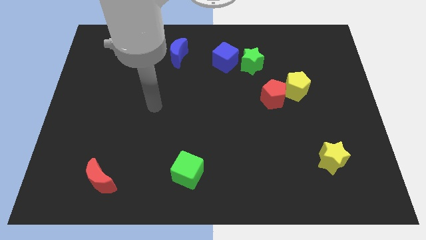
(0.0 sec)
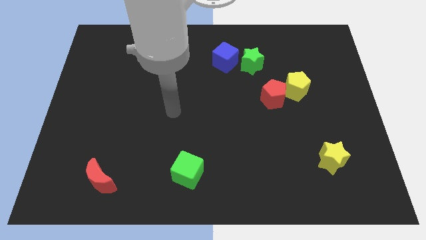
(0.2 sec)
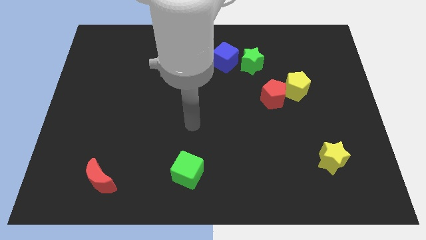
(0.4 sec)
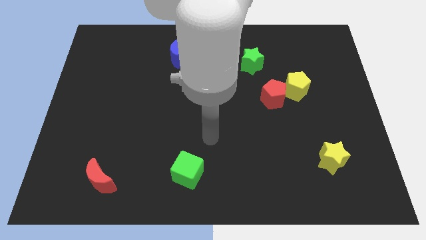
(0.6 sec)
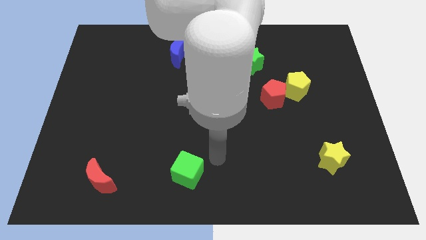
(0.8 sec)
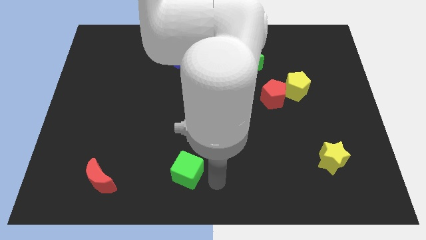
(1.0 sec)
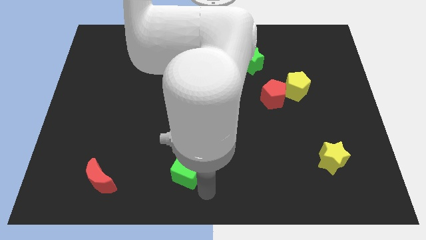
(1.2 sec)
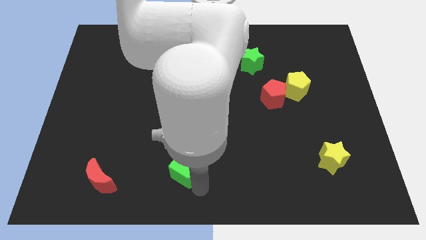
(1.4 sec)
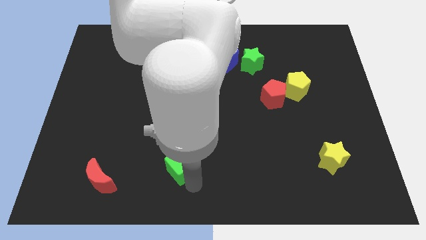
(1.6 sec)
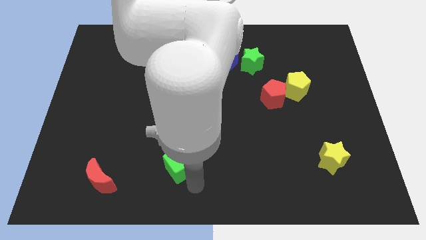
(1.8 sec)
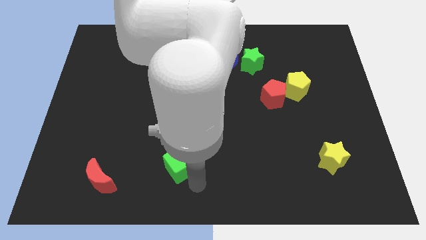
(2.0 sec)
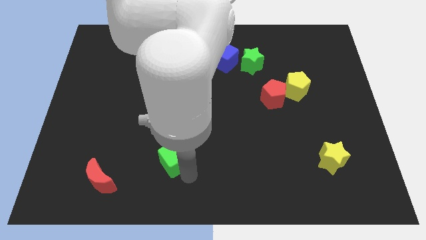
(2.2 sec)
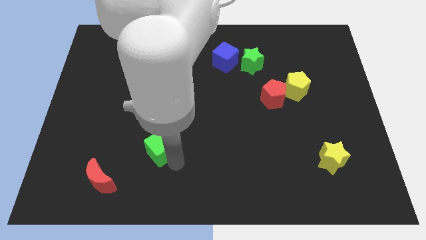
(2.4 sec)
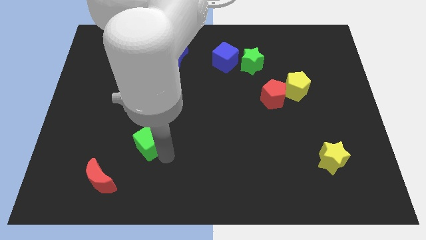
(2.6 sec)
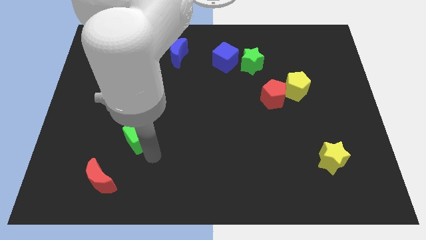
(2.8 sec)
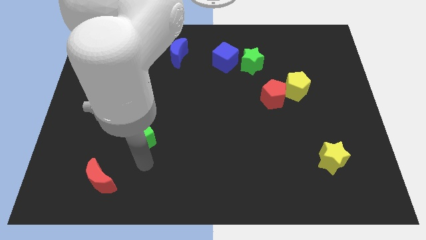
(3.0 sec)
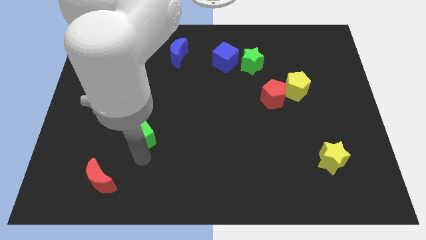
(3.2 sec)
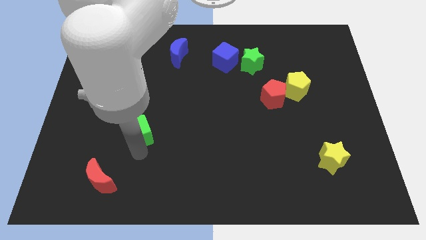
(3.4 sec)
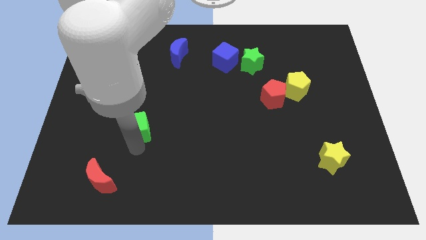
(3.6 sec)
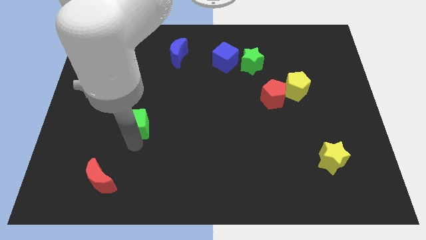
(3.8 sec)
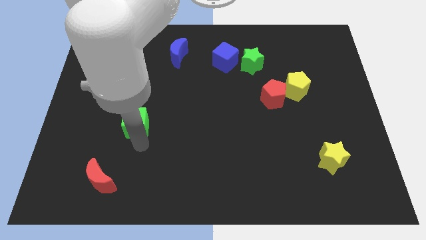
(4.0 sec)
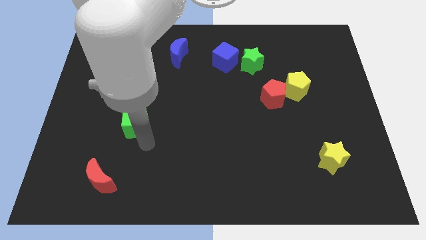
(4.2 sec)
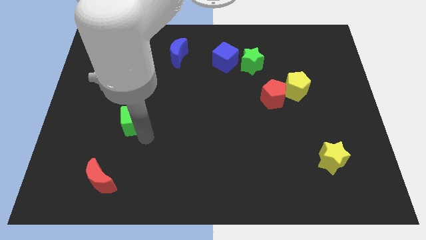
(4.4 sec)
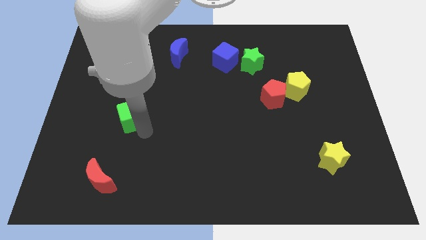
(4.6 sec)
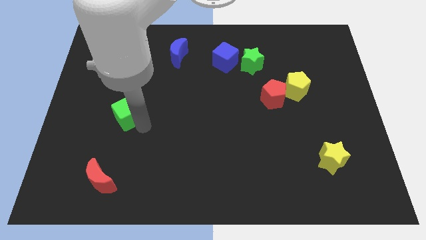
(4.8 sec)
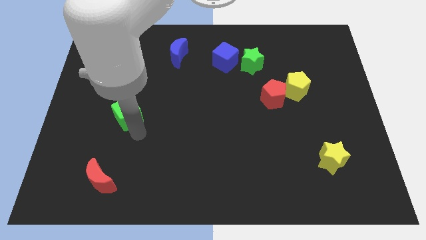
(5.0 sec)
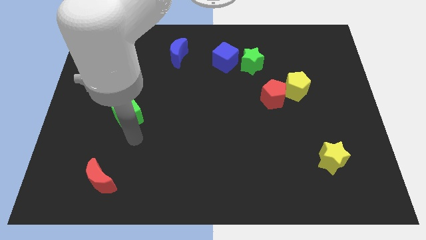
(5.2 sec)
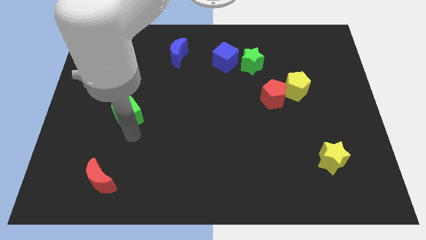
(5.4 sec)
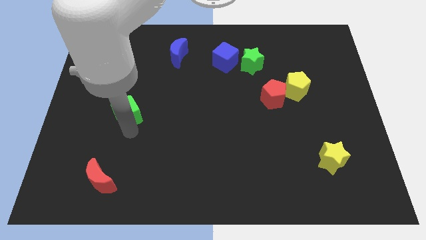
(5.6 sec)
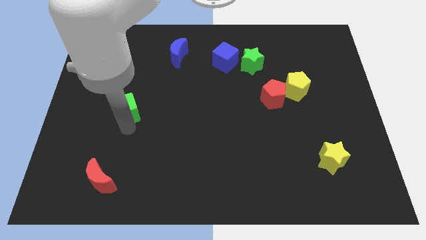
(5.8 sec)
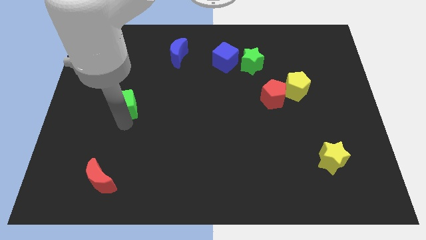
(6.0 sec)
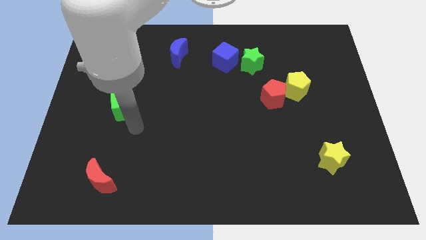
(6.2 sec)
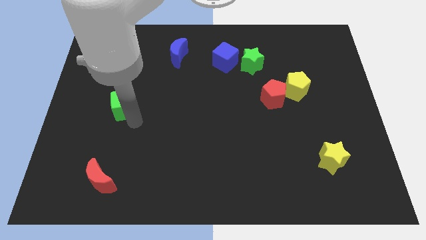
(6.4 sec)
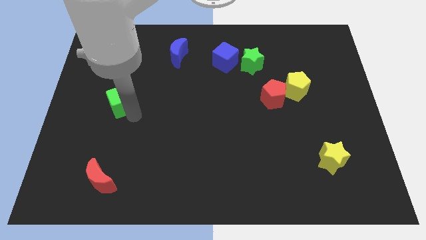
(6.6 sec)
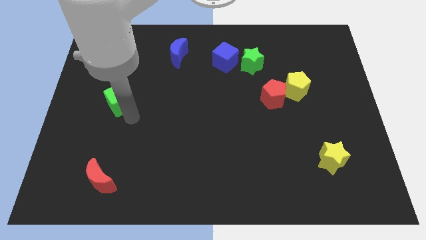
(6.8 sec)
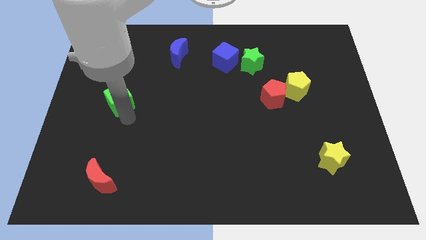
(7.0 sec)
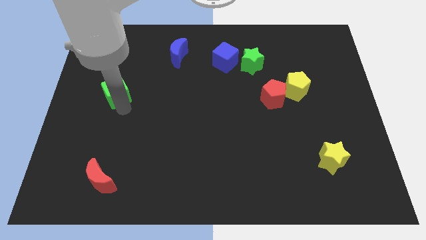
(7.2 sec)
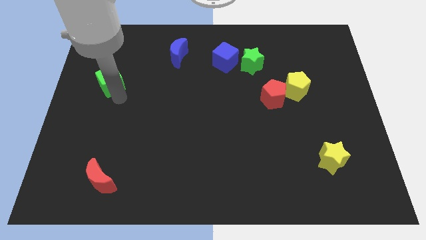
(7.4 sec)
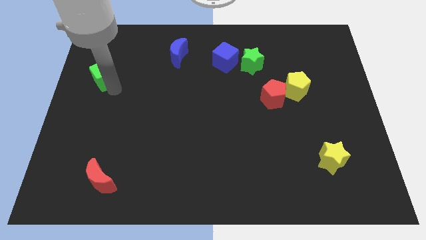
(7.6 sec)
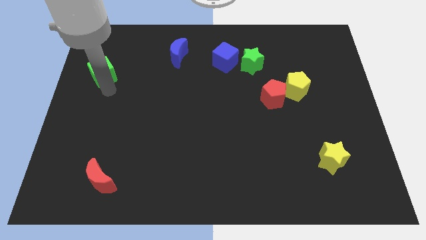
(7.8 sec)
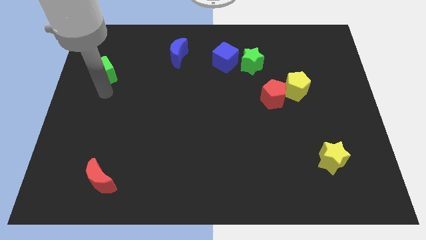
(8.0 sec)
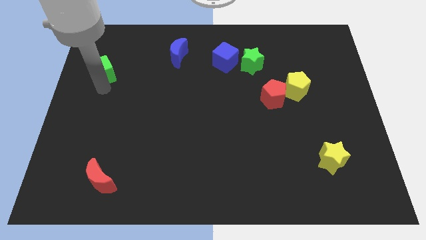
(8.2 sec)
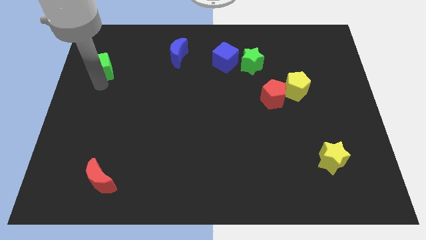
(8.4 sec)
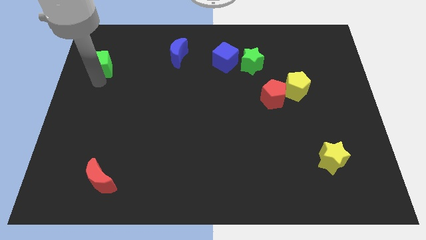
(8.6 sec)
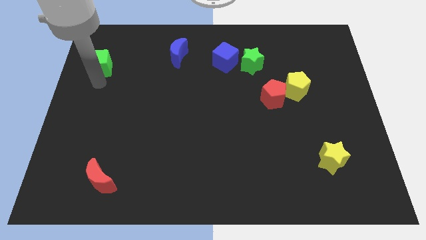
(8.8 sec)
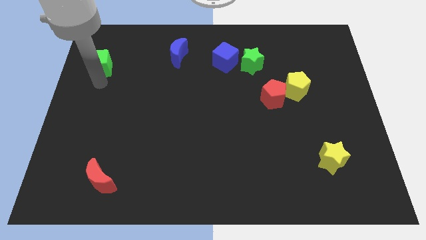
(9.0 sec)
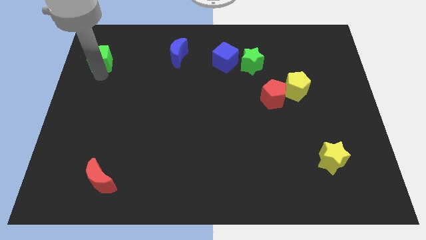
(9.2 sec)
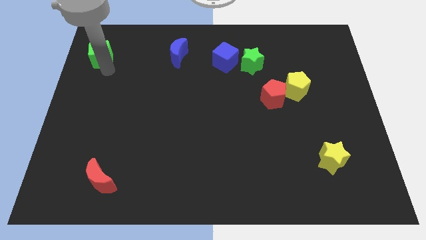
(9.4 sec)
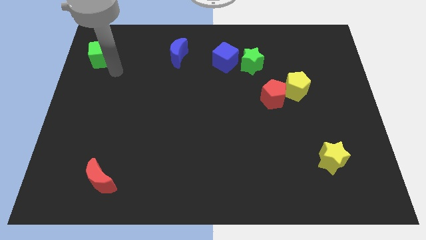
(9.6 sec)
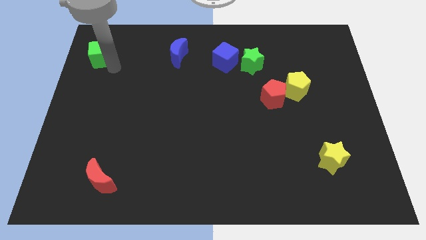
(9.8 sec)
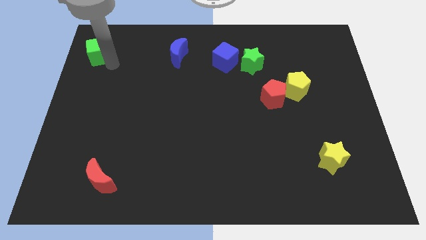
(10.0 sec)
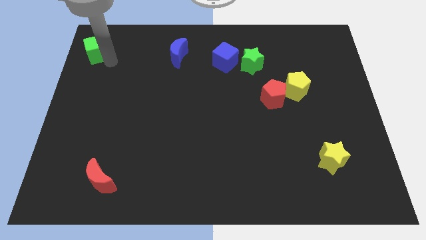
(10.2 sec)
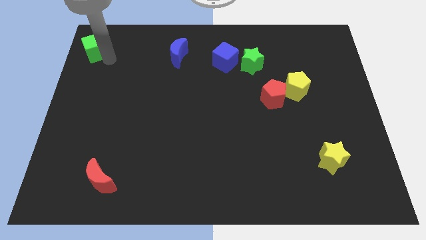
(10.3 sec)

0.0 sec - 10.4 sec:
push the green cube to the top left corner

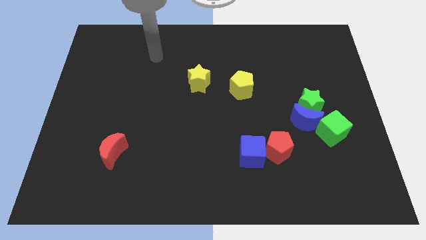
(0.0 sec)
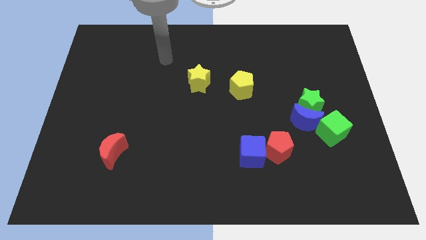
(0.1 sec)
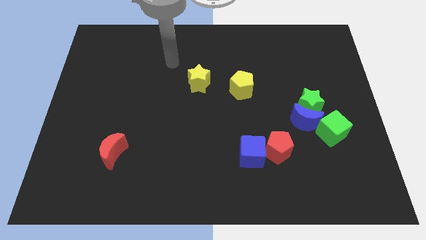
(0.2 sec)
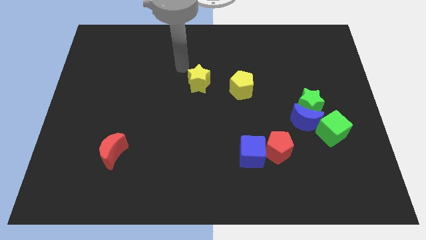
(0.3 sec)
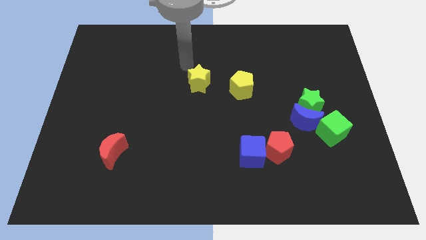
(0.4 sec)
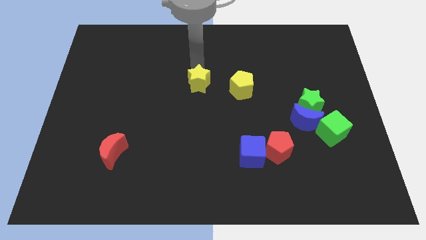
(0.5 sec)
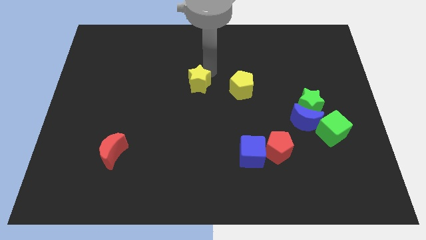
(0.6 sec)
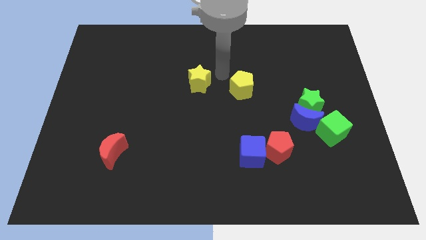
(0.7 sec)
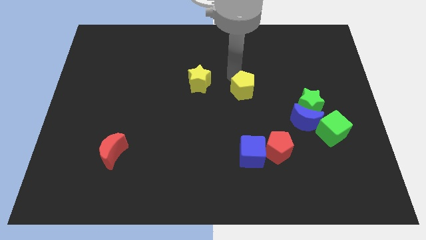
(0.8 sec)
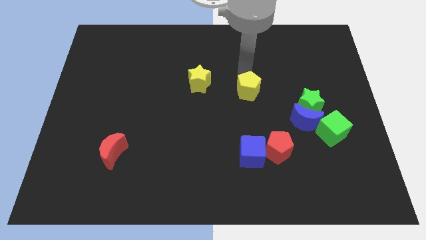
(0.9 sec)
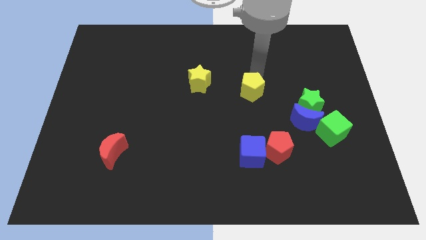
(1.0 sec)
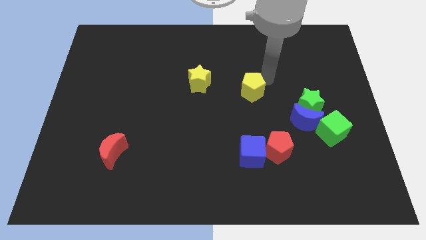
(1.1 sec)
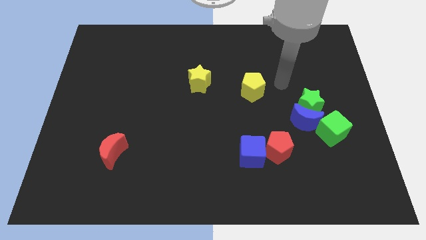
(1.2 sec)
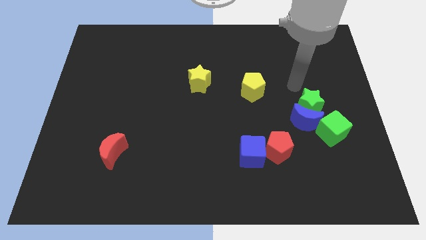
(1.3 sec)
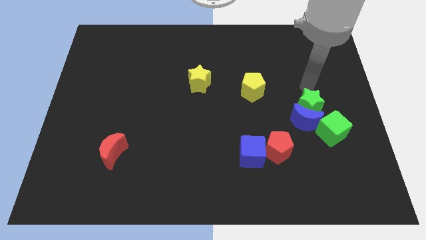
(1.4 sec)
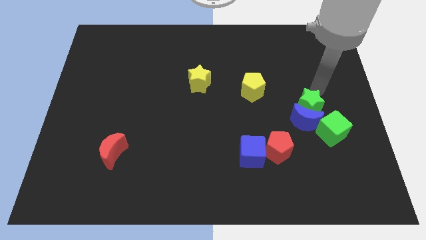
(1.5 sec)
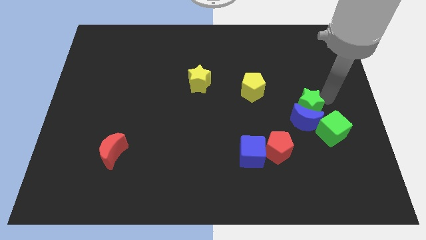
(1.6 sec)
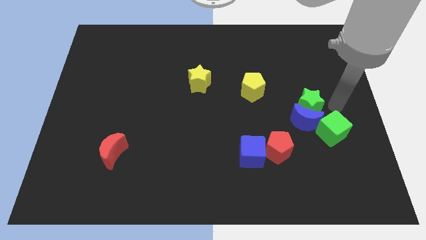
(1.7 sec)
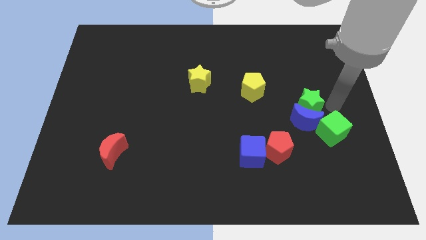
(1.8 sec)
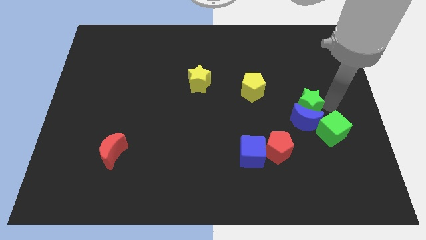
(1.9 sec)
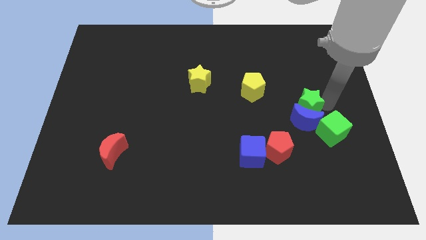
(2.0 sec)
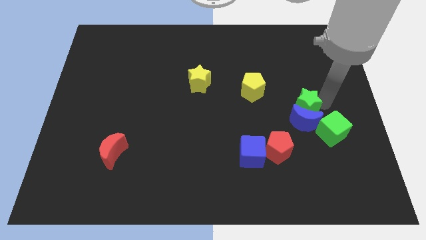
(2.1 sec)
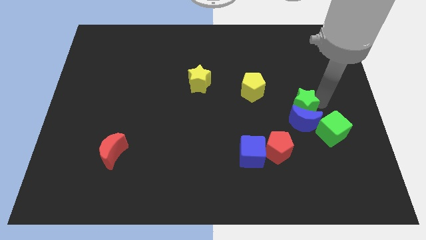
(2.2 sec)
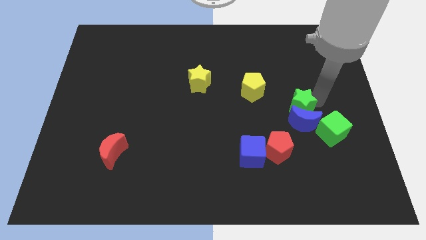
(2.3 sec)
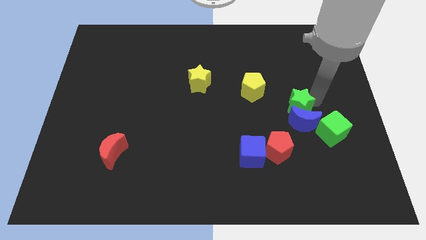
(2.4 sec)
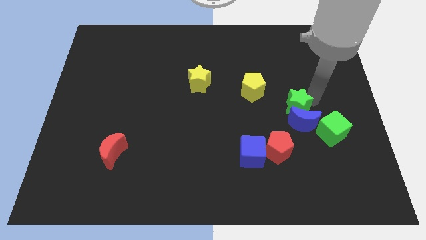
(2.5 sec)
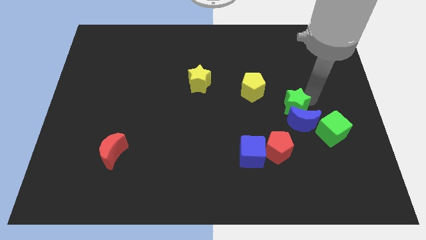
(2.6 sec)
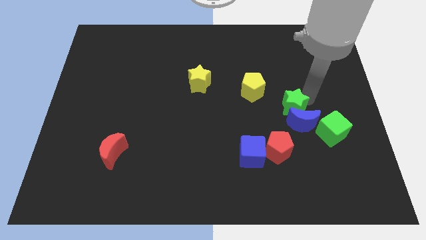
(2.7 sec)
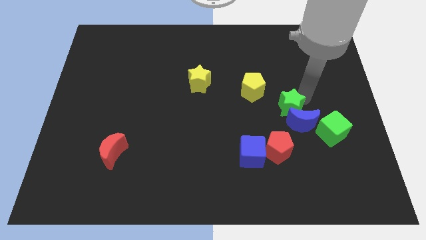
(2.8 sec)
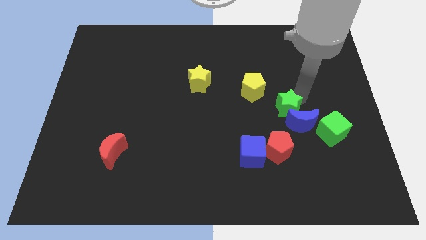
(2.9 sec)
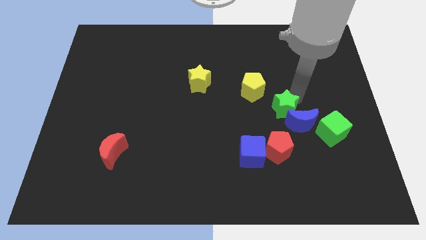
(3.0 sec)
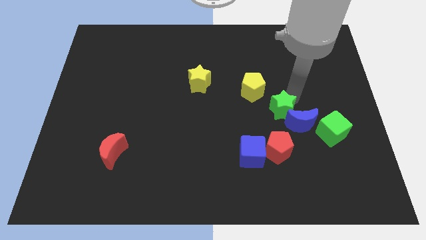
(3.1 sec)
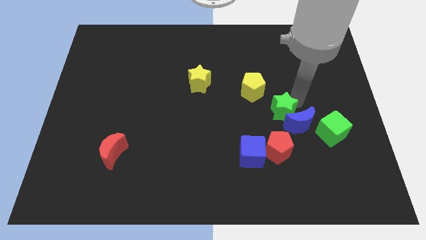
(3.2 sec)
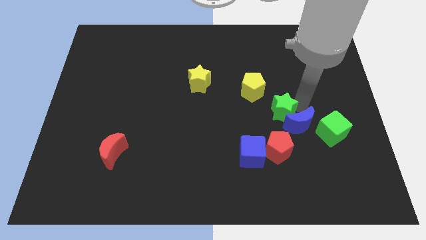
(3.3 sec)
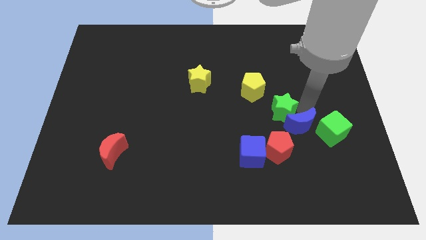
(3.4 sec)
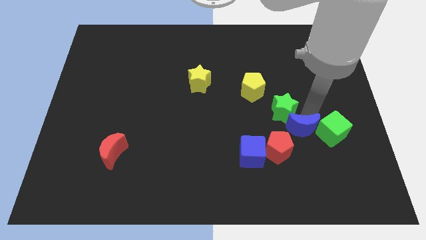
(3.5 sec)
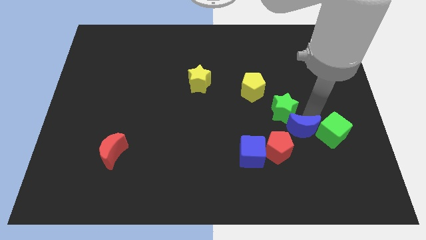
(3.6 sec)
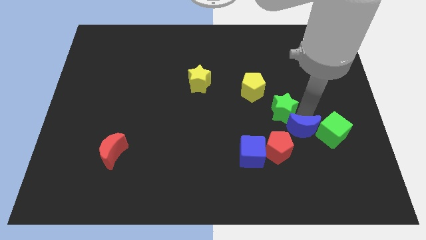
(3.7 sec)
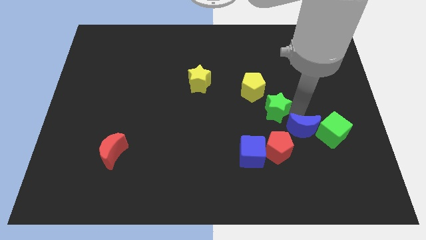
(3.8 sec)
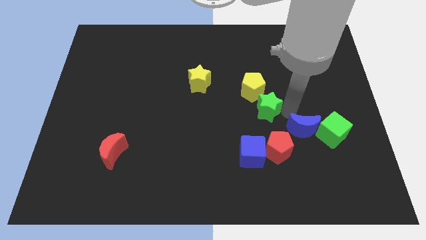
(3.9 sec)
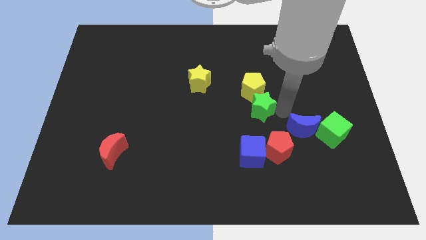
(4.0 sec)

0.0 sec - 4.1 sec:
move the green star to the center
